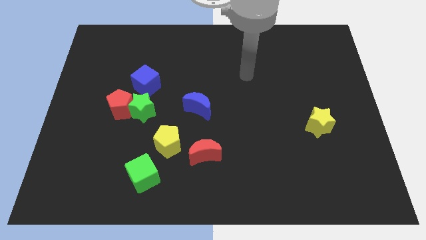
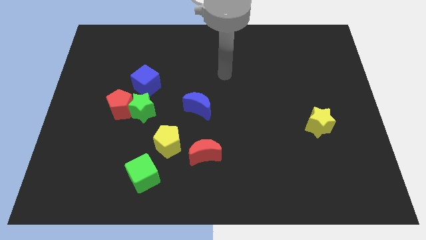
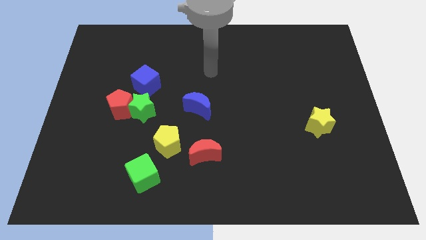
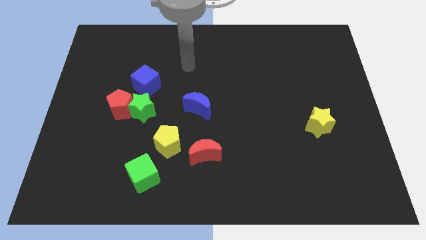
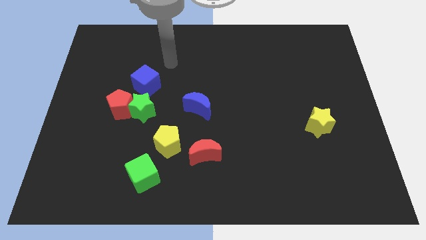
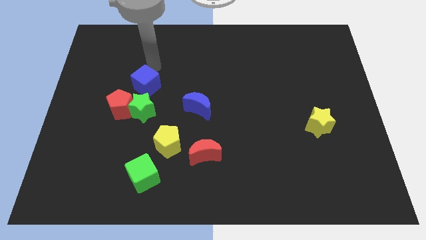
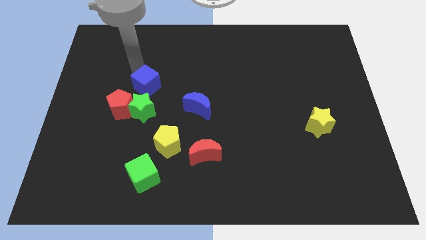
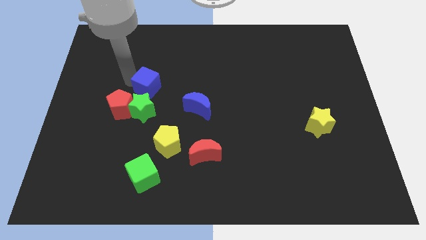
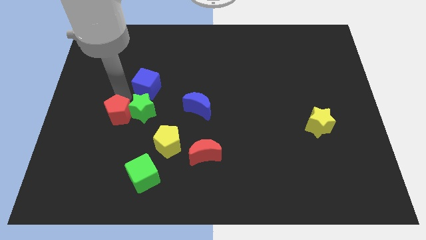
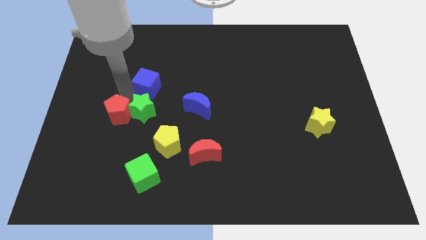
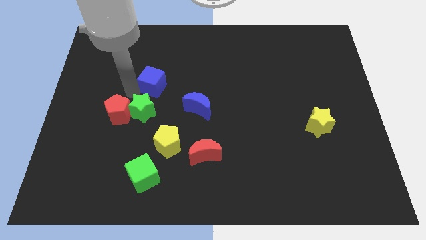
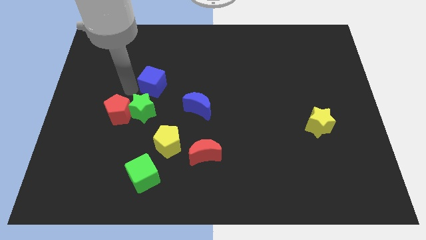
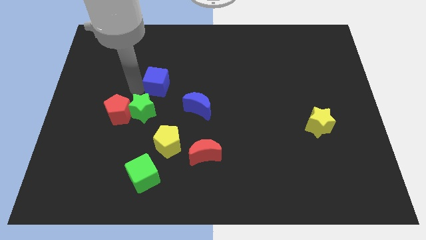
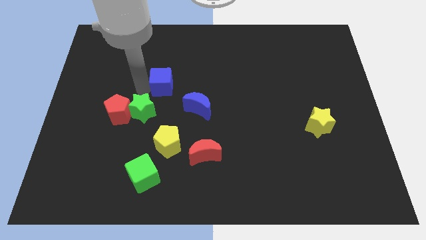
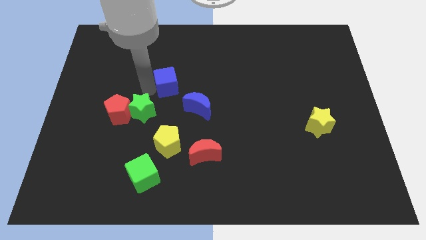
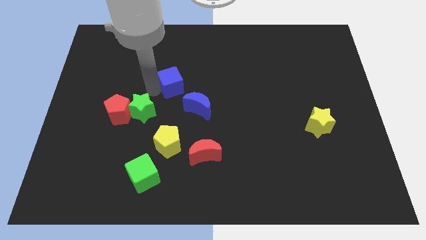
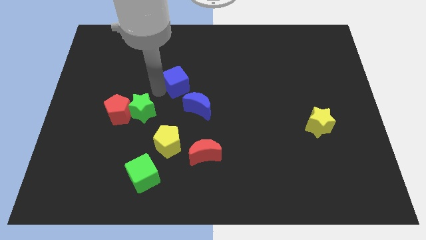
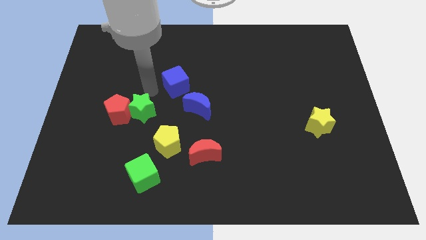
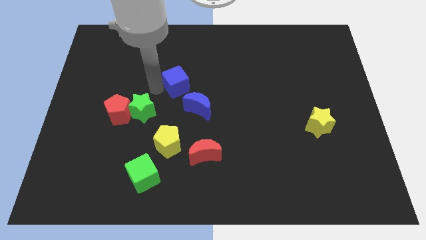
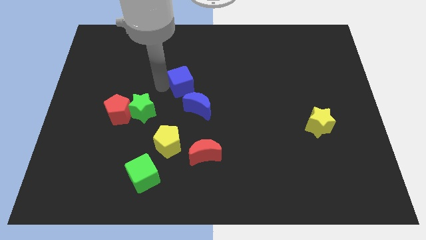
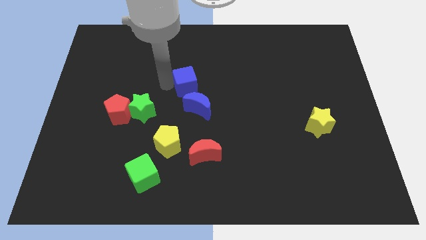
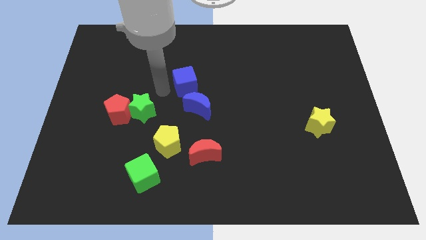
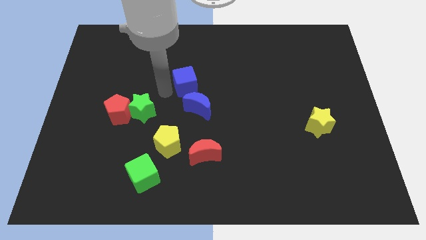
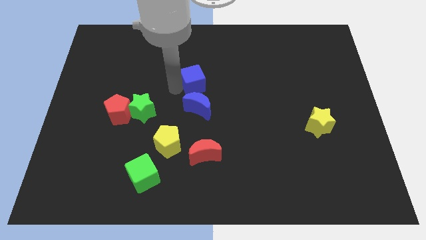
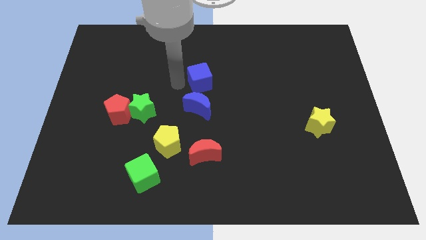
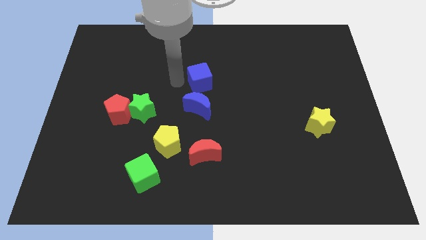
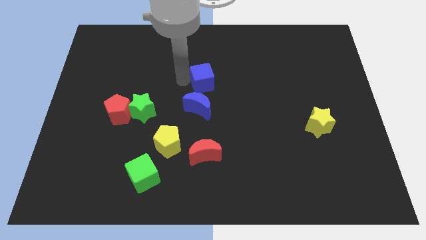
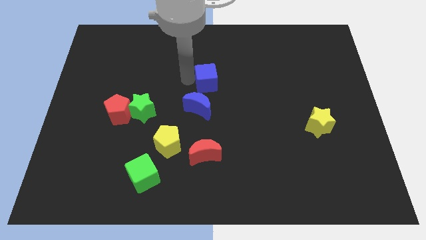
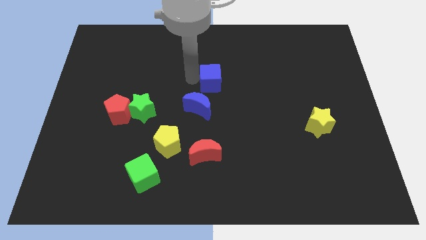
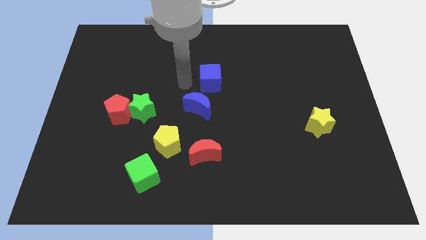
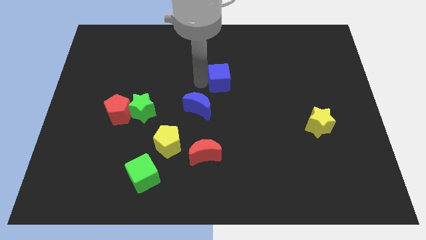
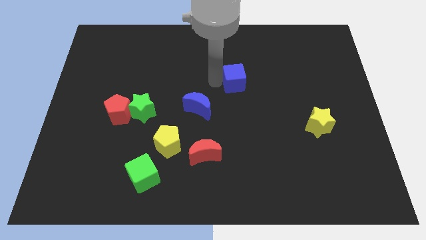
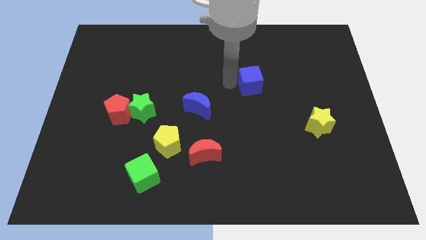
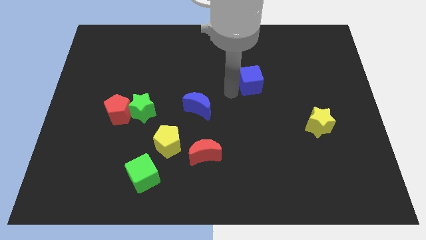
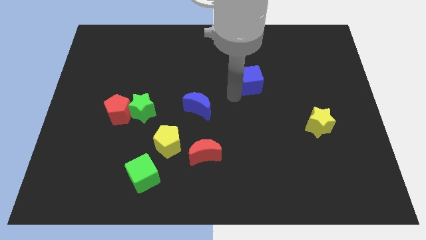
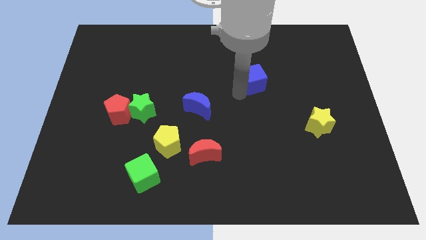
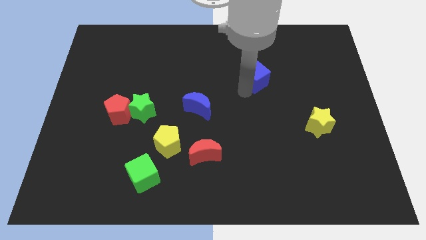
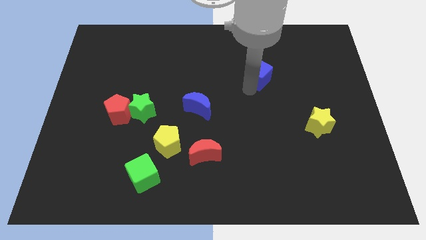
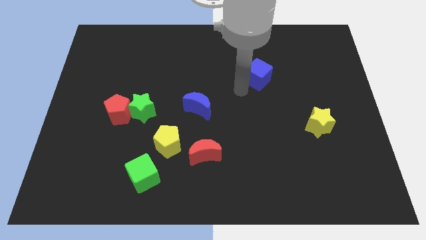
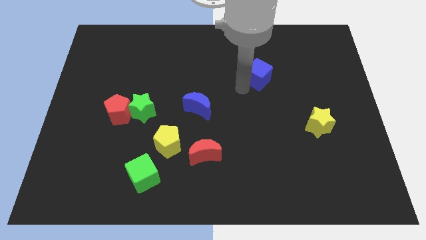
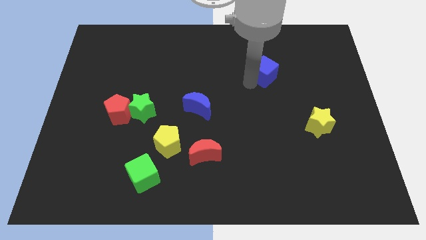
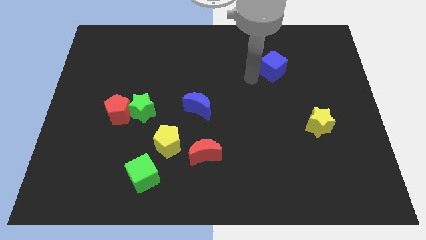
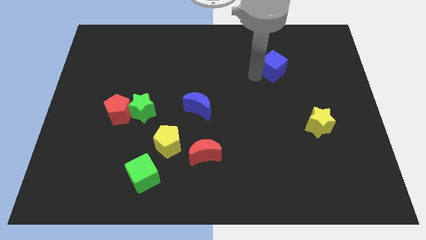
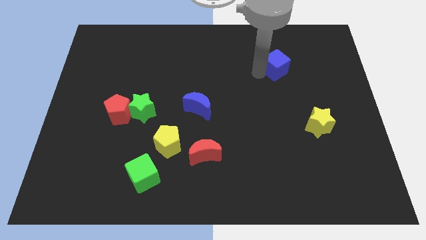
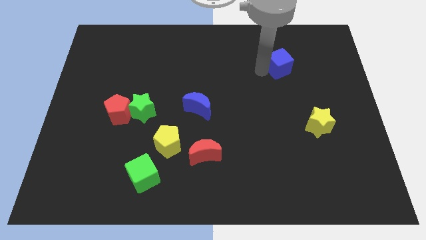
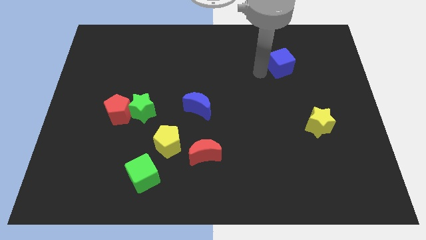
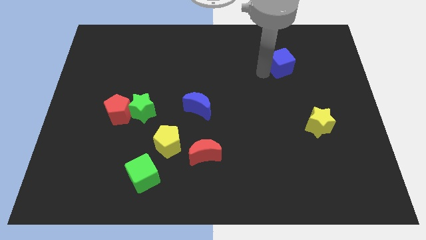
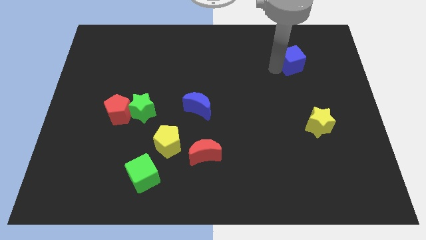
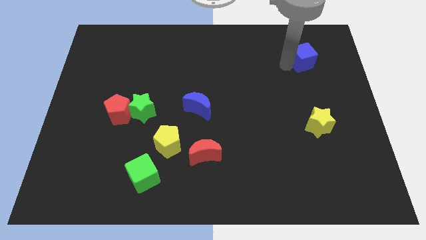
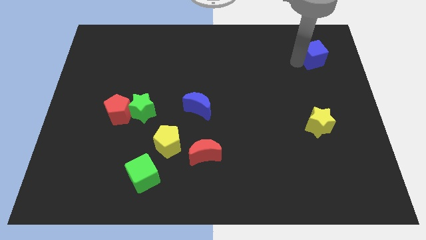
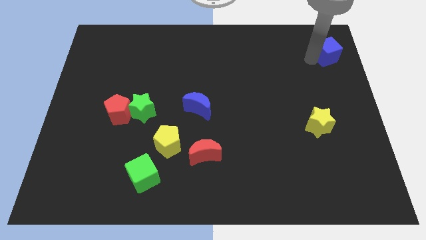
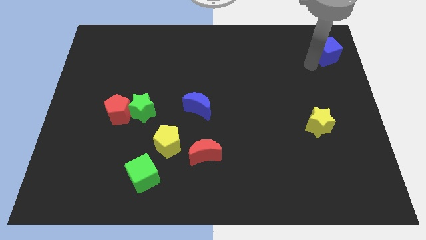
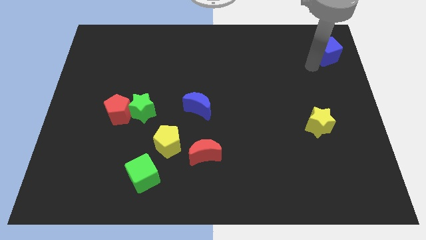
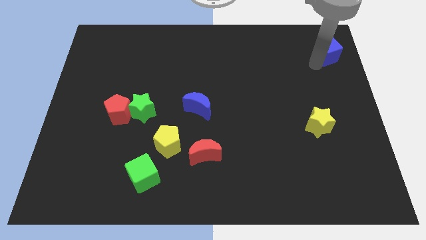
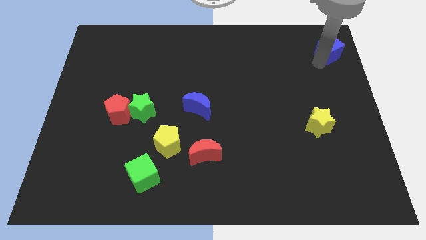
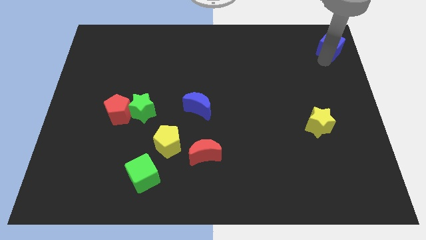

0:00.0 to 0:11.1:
move the blue cube to the top right corner
